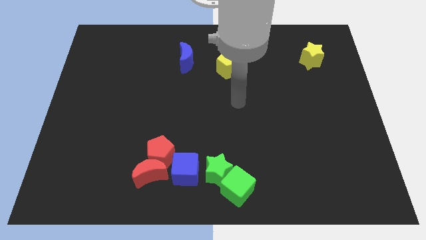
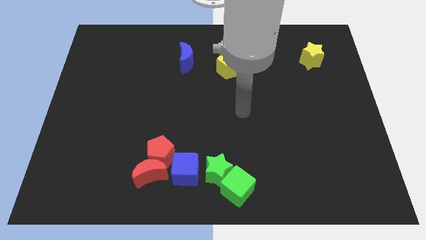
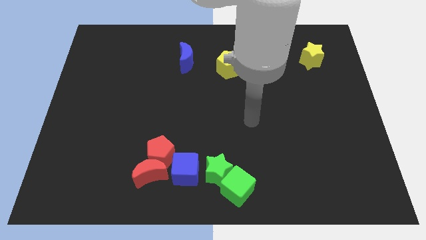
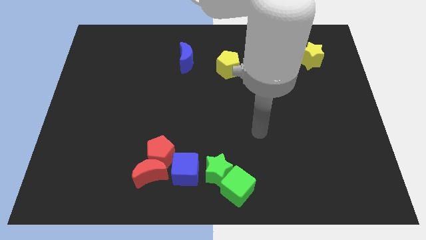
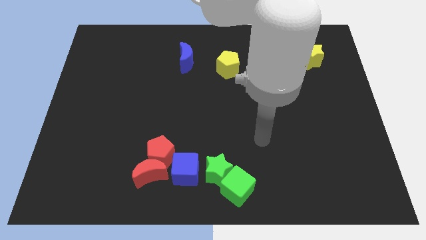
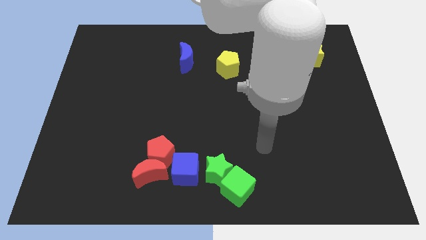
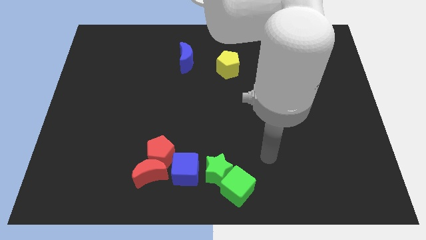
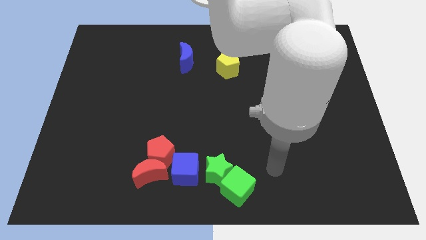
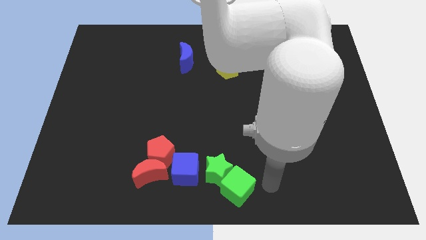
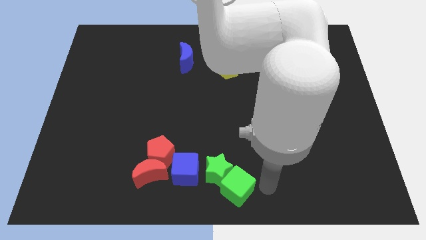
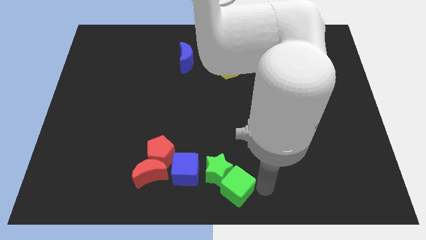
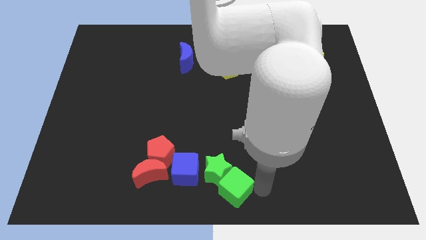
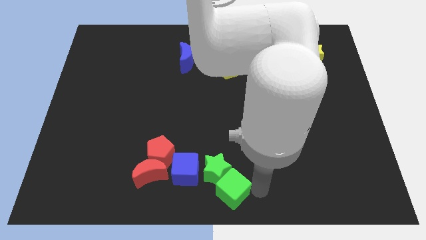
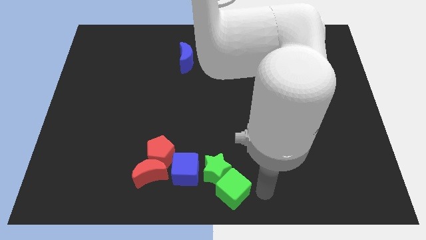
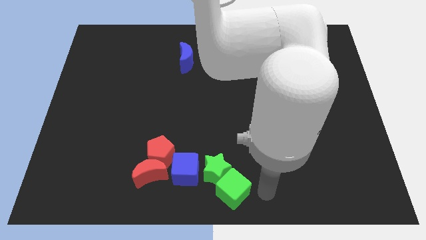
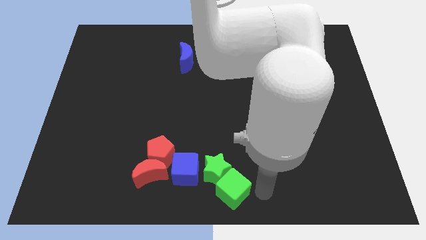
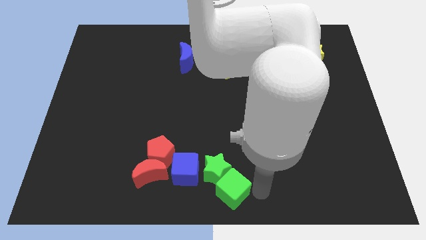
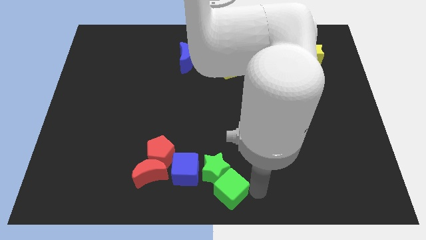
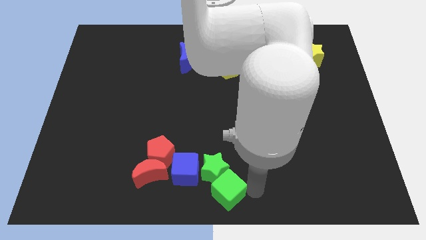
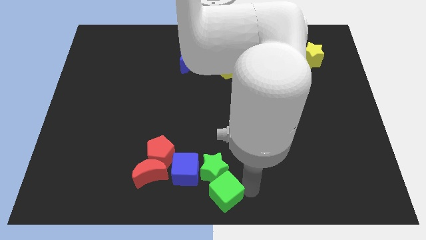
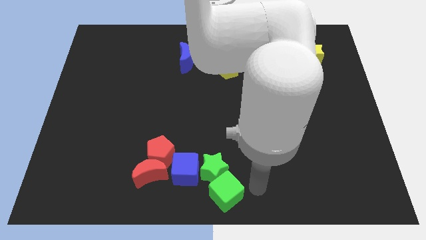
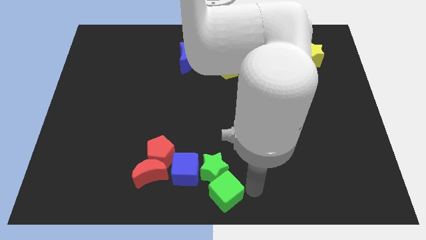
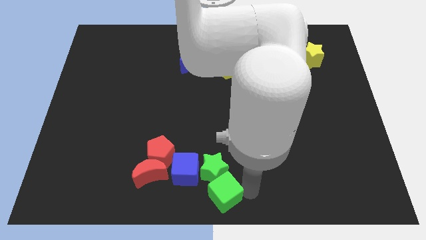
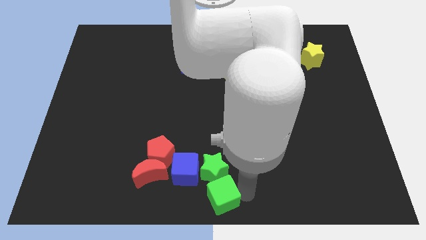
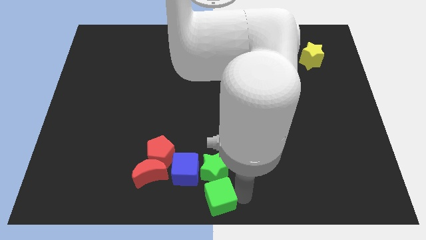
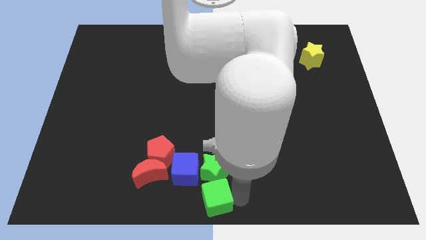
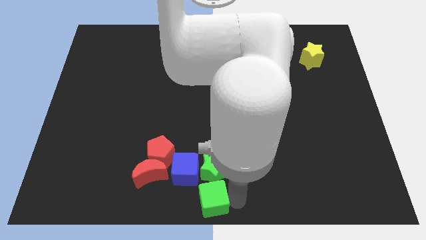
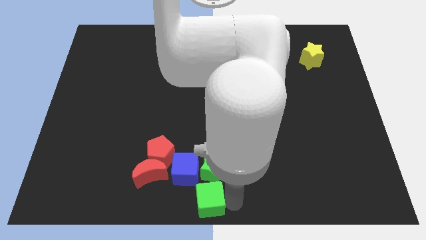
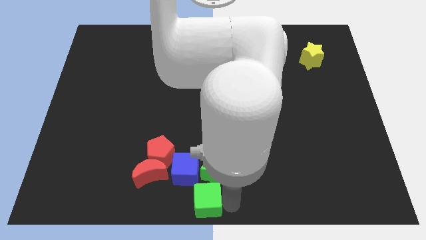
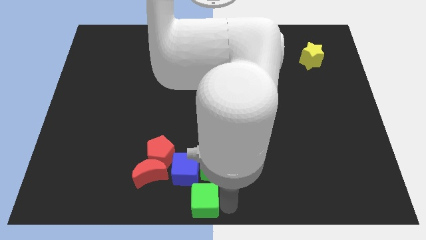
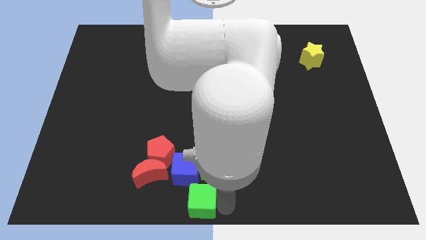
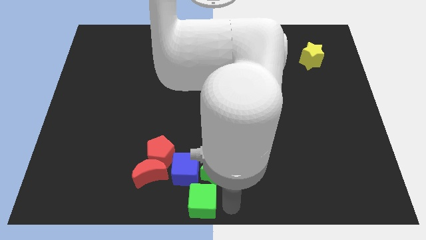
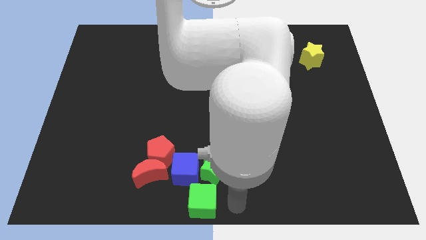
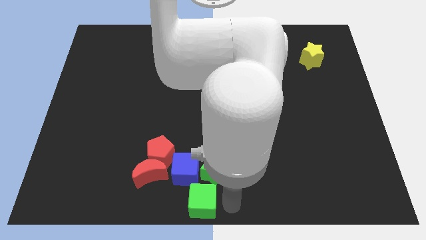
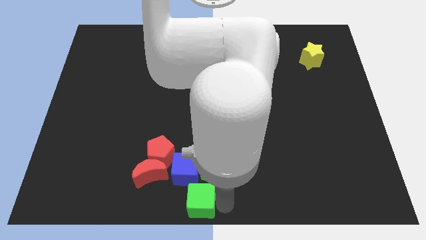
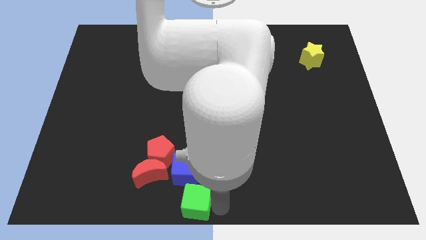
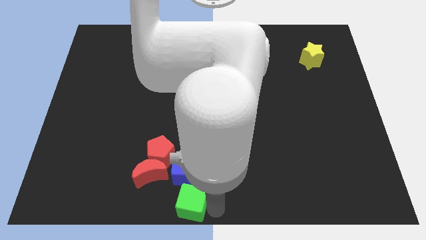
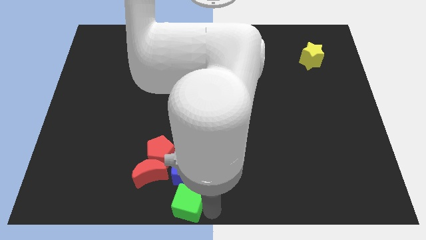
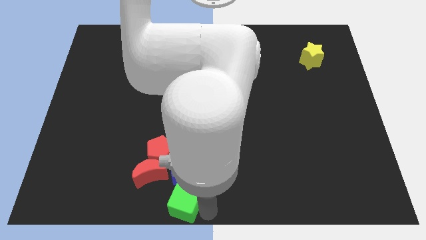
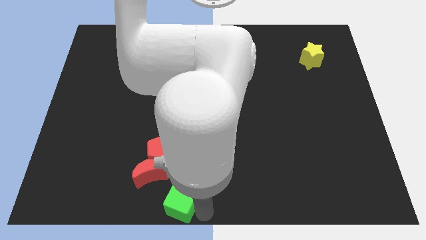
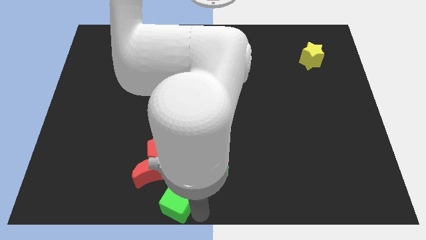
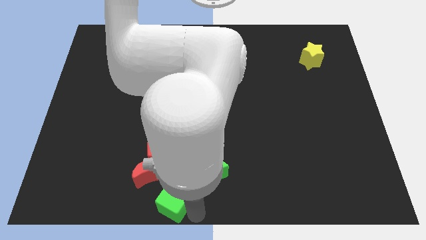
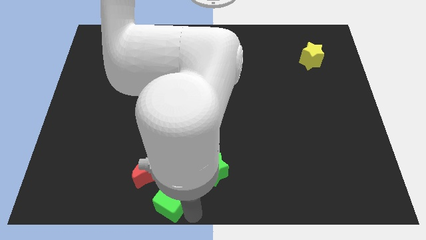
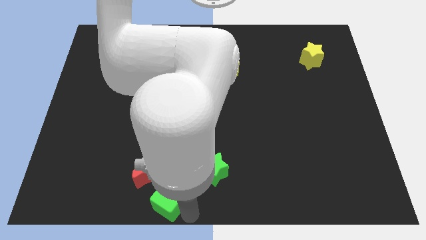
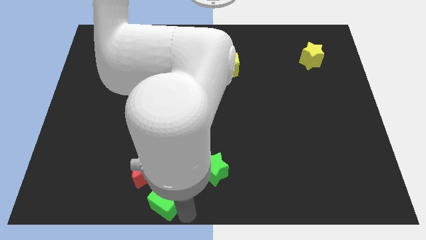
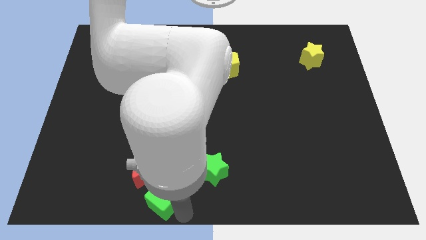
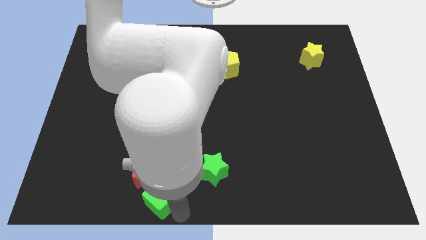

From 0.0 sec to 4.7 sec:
put the green cube to the red moon

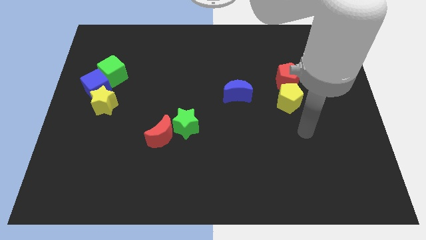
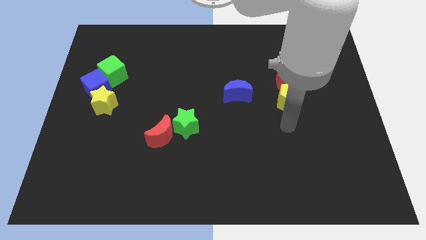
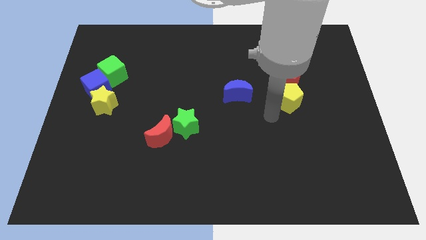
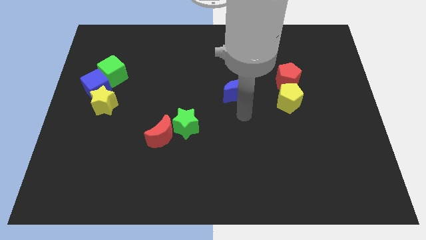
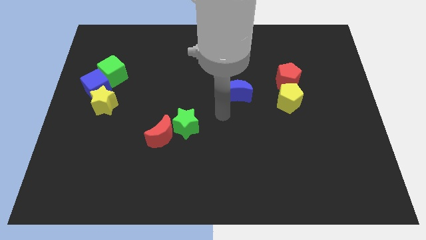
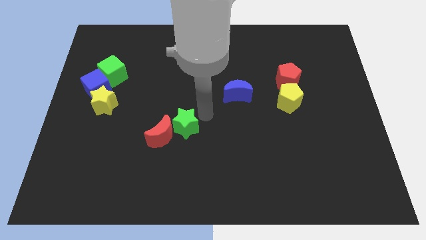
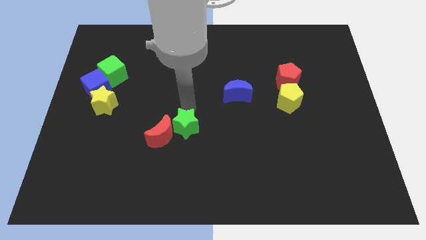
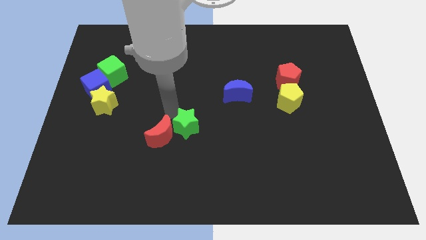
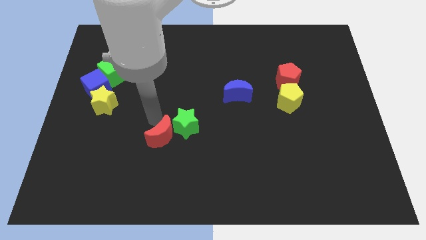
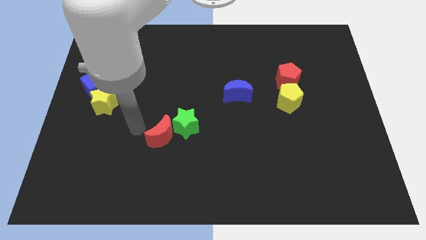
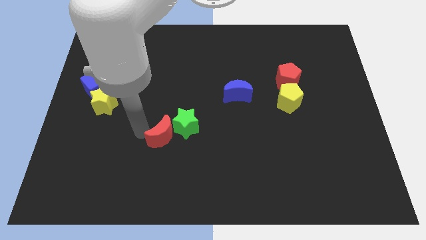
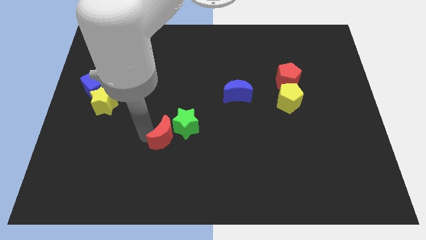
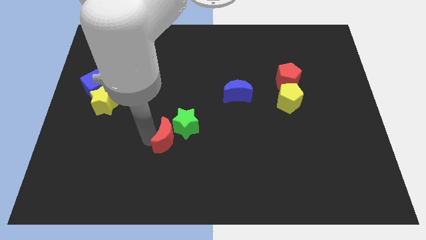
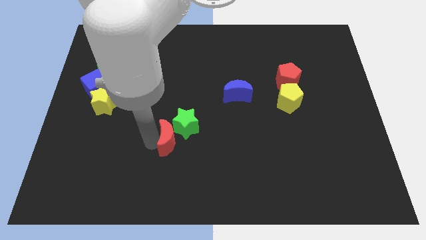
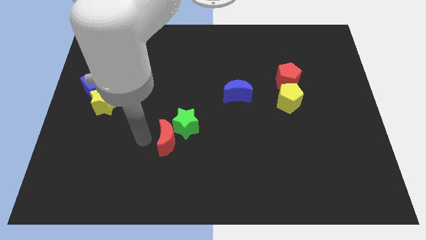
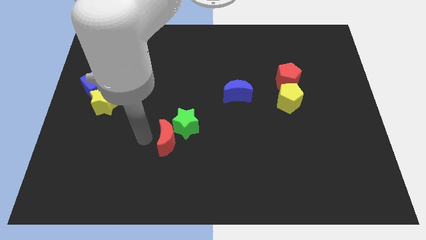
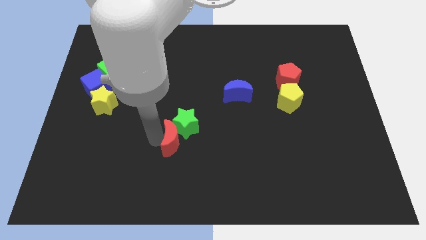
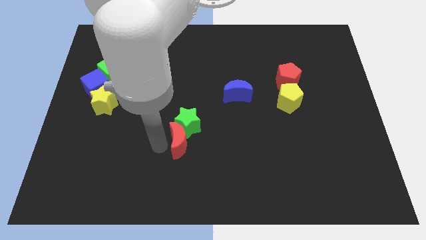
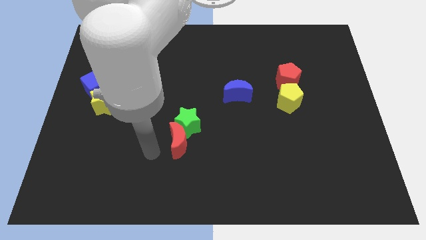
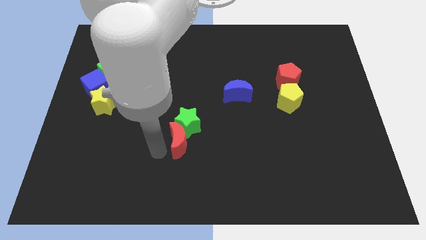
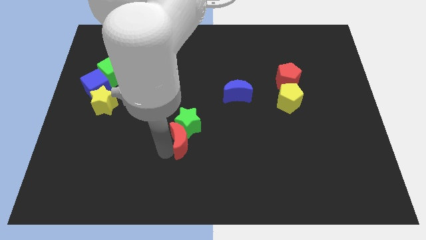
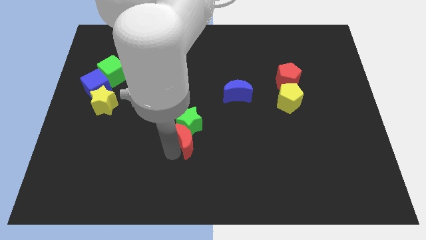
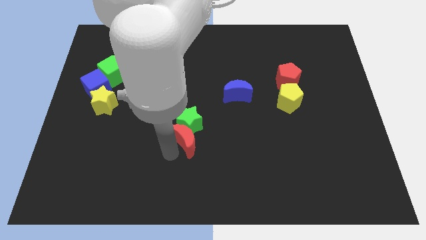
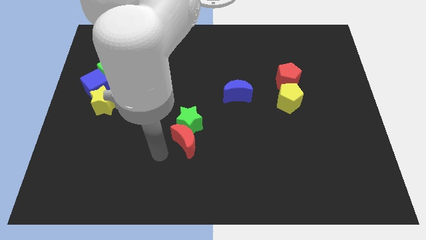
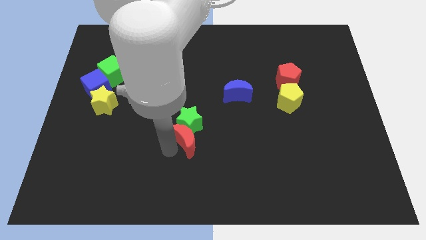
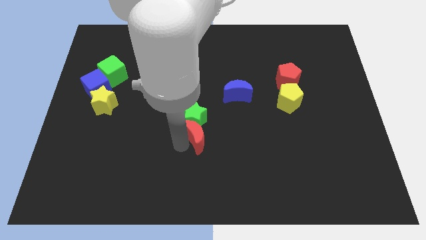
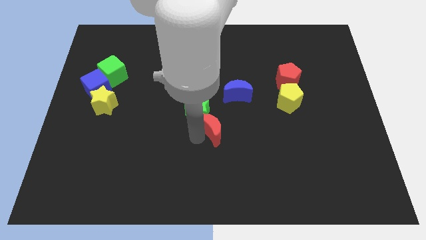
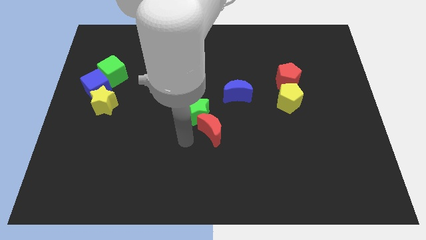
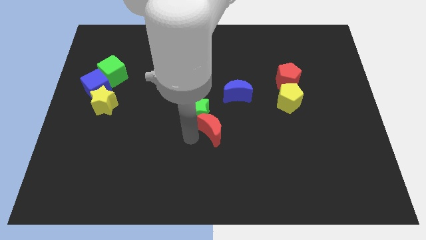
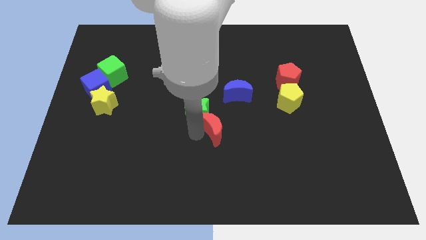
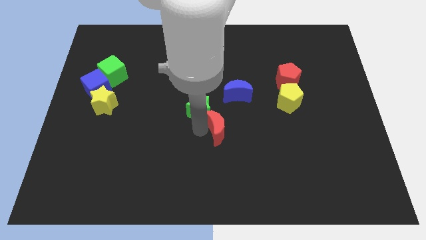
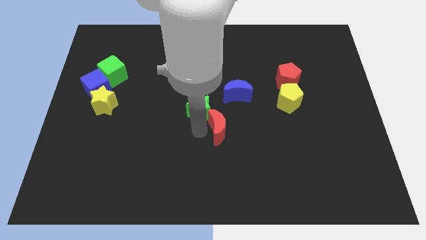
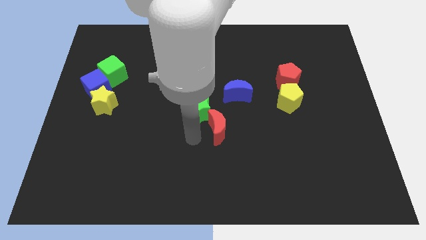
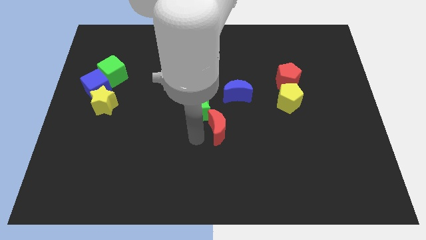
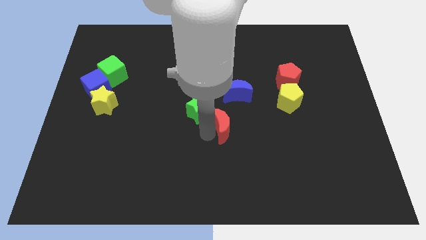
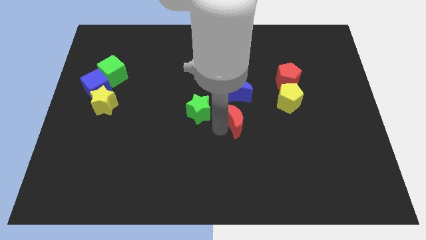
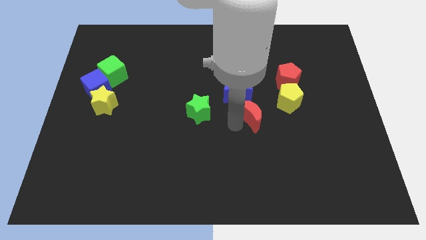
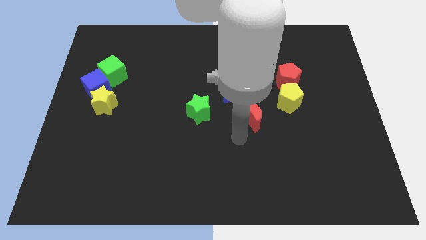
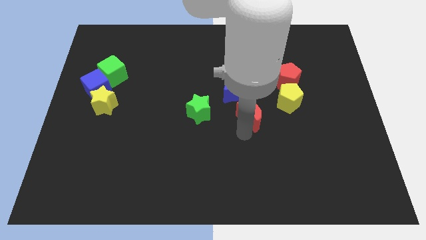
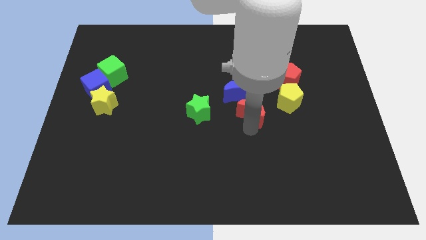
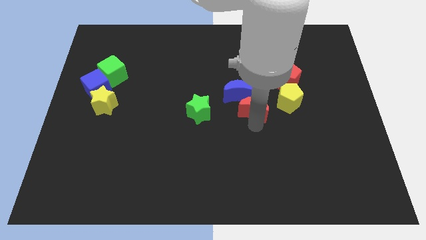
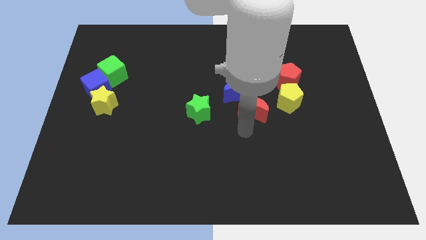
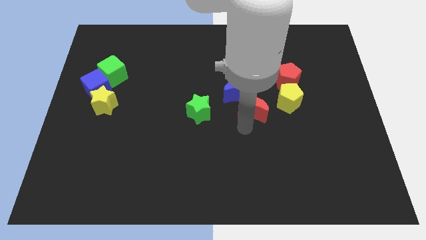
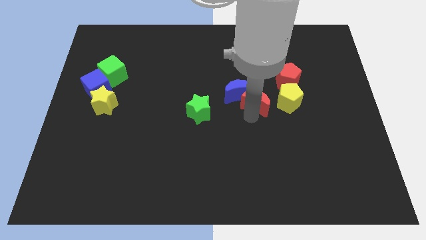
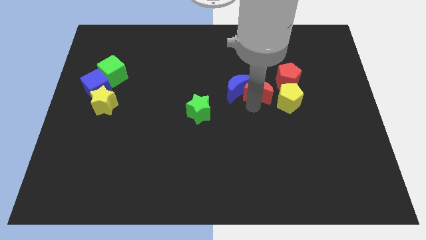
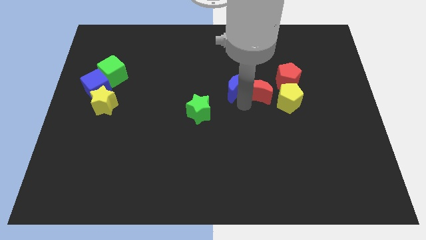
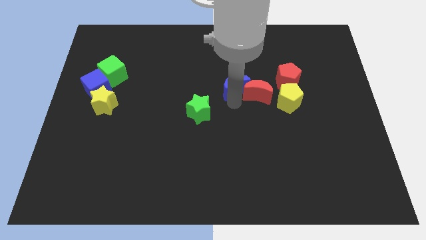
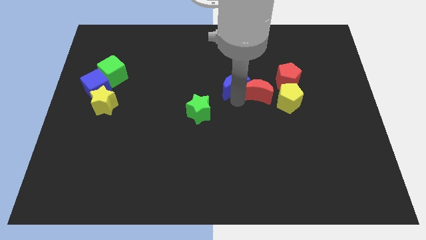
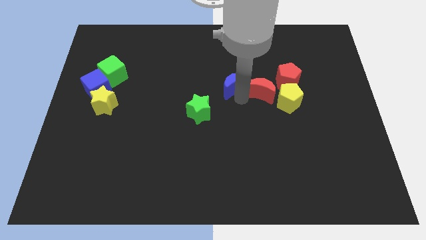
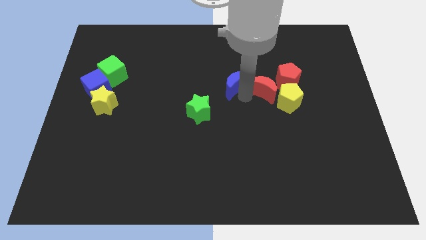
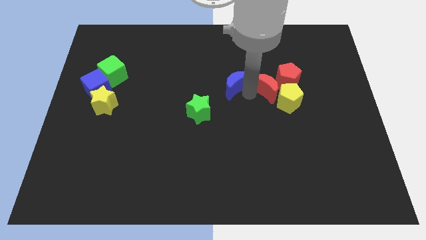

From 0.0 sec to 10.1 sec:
move the red moon next to the red pentagon
